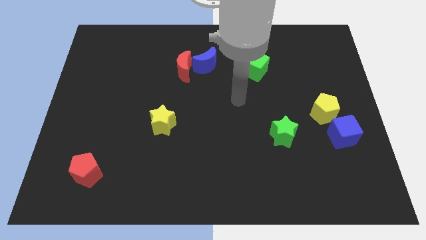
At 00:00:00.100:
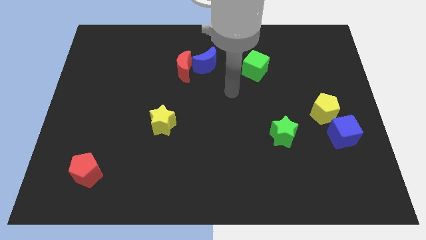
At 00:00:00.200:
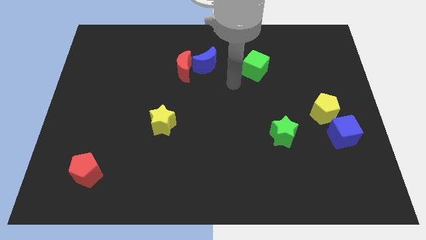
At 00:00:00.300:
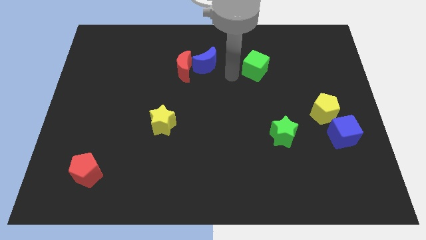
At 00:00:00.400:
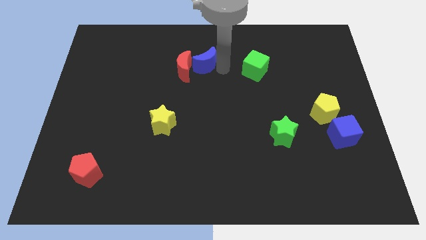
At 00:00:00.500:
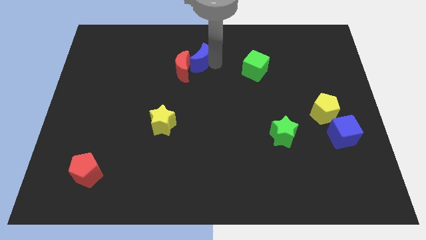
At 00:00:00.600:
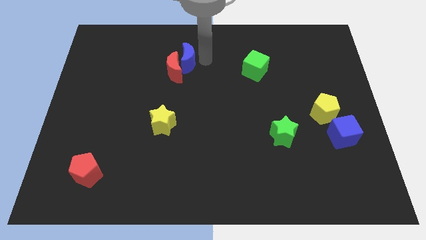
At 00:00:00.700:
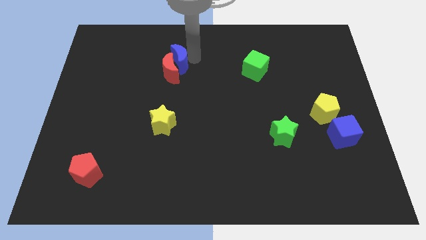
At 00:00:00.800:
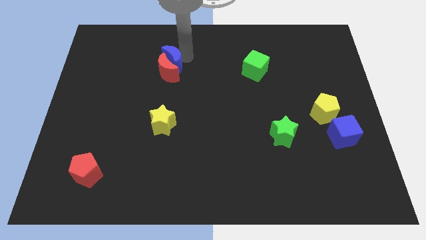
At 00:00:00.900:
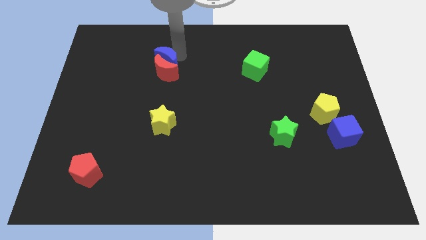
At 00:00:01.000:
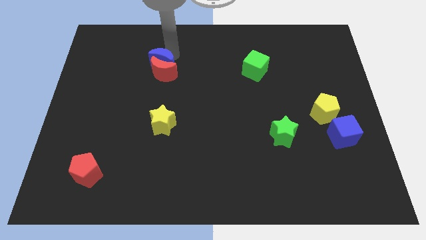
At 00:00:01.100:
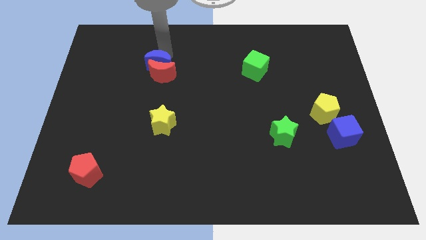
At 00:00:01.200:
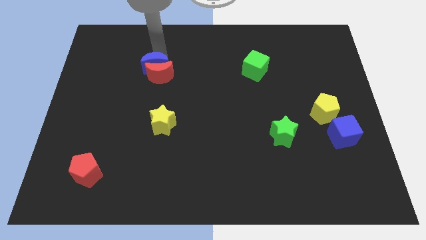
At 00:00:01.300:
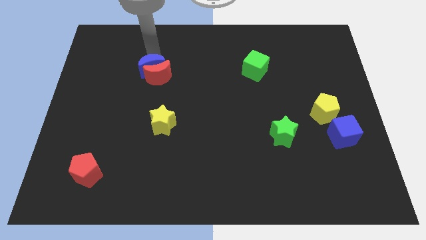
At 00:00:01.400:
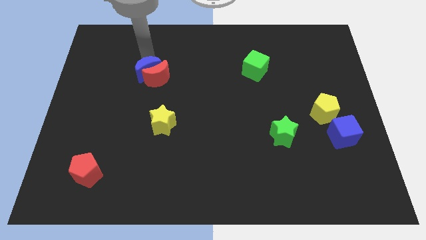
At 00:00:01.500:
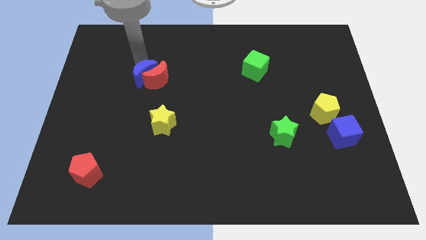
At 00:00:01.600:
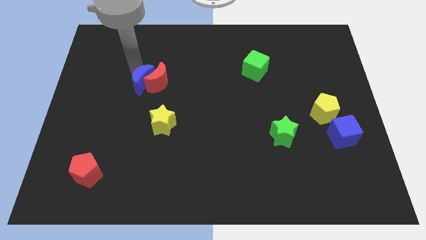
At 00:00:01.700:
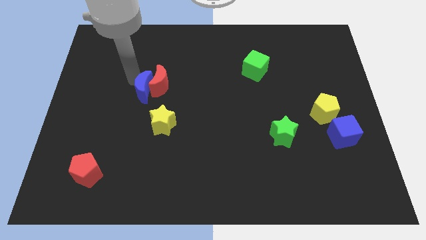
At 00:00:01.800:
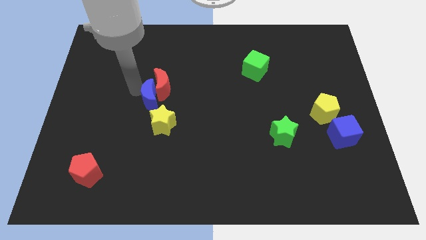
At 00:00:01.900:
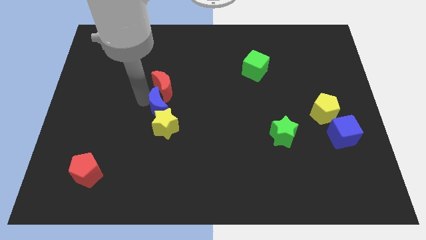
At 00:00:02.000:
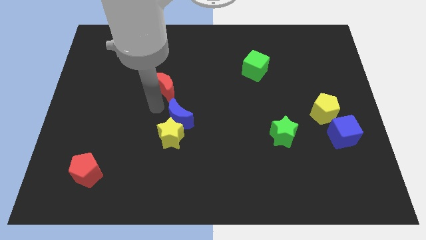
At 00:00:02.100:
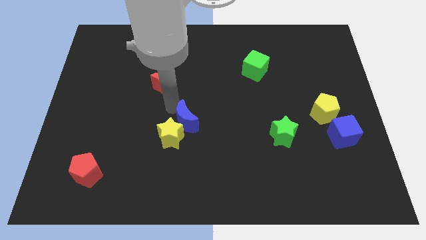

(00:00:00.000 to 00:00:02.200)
pull the red moon apart from the blue moon

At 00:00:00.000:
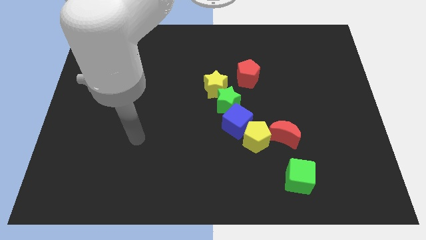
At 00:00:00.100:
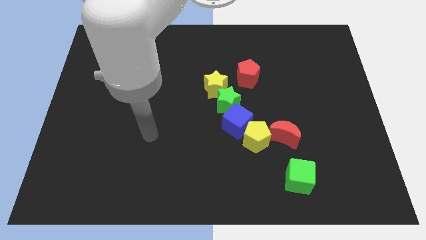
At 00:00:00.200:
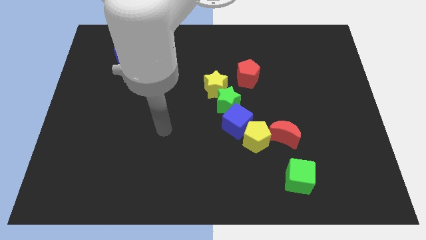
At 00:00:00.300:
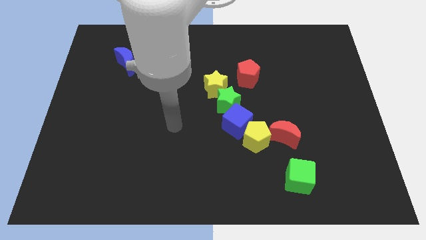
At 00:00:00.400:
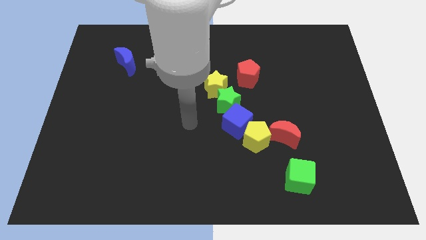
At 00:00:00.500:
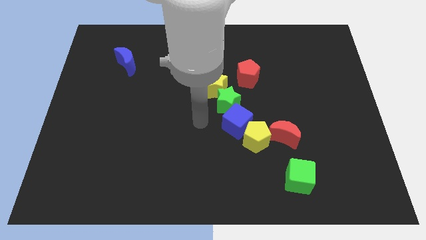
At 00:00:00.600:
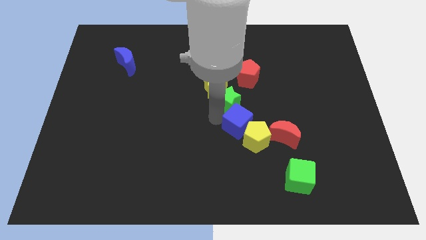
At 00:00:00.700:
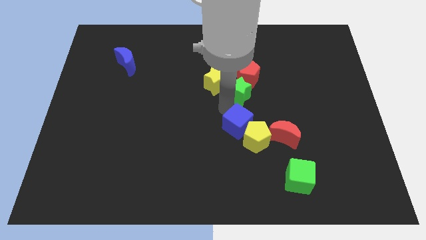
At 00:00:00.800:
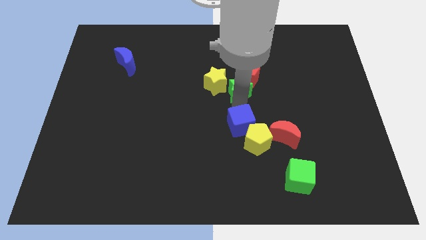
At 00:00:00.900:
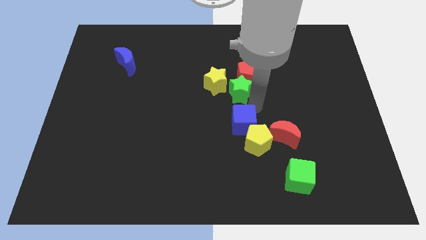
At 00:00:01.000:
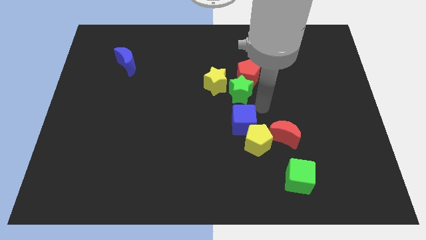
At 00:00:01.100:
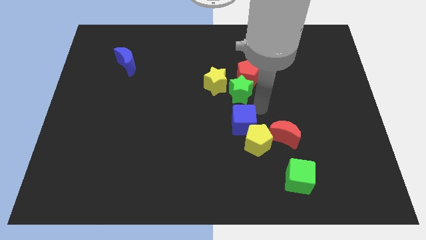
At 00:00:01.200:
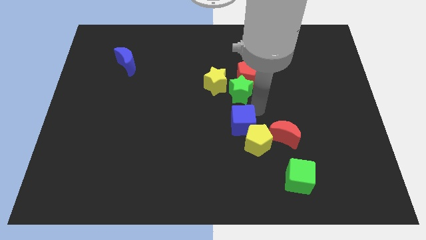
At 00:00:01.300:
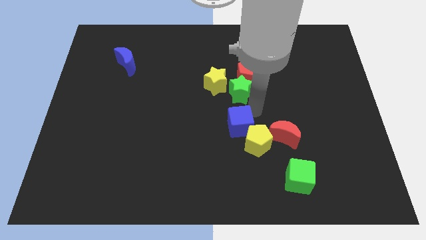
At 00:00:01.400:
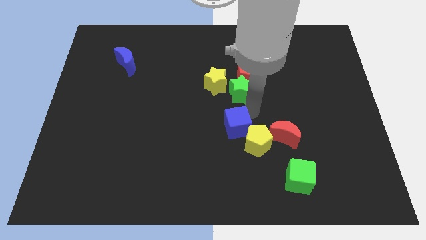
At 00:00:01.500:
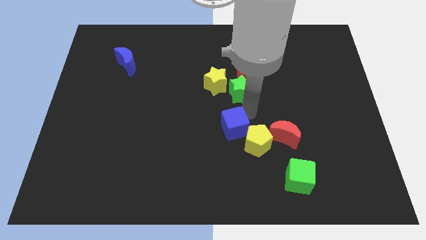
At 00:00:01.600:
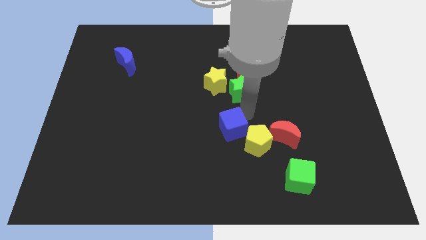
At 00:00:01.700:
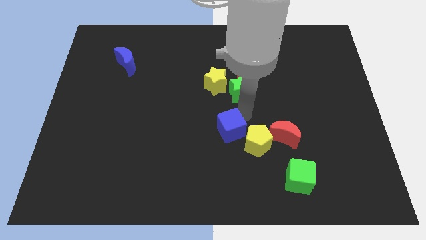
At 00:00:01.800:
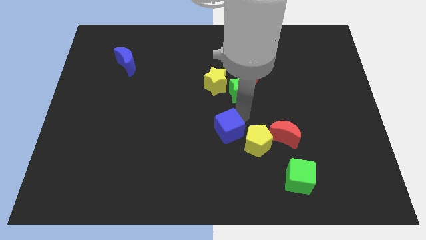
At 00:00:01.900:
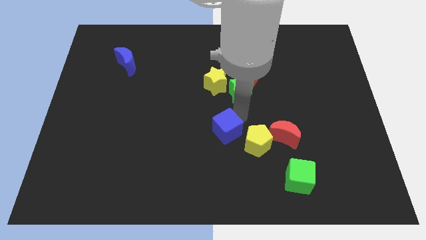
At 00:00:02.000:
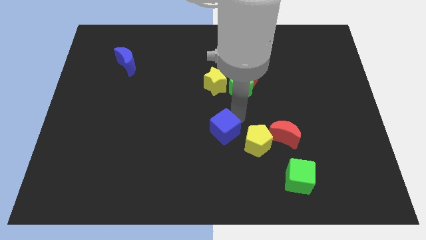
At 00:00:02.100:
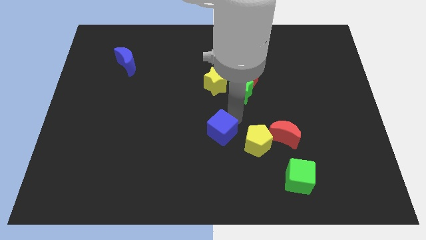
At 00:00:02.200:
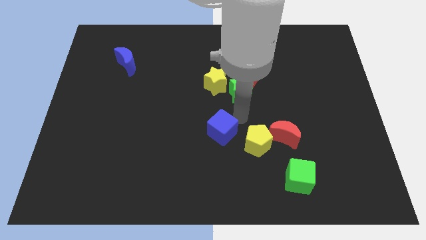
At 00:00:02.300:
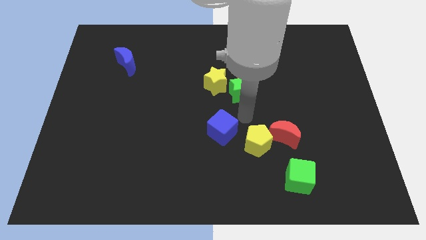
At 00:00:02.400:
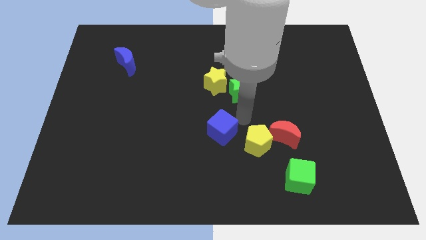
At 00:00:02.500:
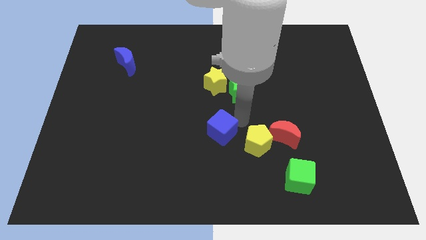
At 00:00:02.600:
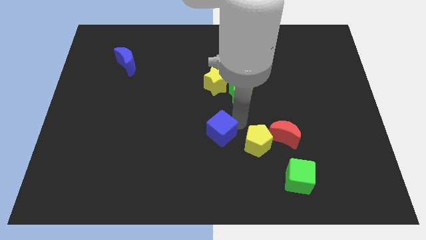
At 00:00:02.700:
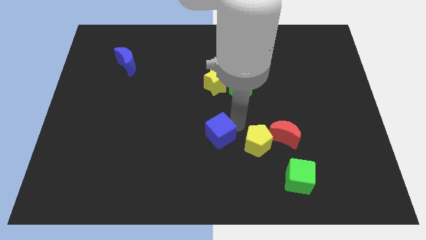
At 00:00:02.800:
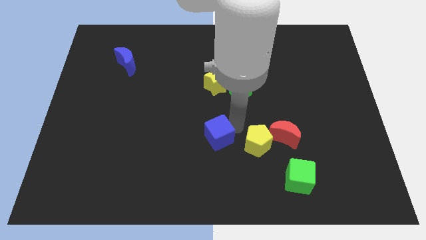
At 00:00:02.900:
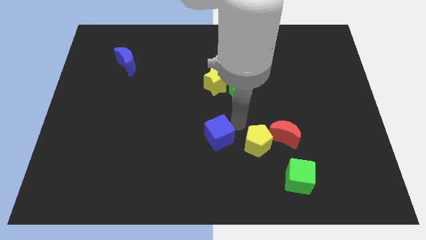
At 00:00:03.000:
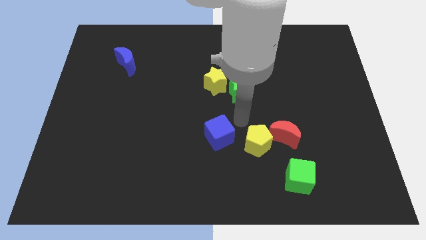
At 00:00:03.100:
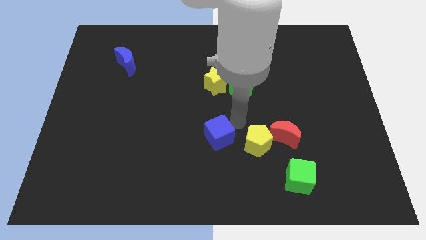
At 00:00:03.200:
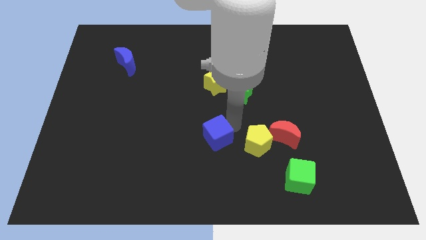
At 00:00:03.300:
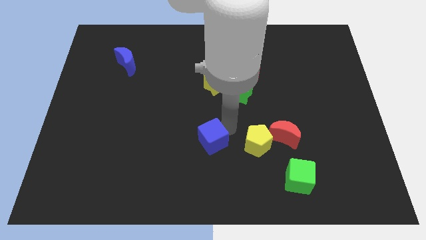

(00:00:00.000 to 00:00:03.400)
pull the blue cube apart from the yellow pentagon and green star

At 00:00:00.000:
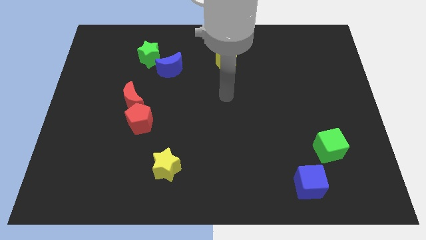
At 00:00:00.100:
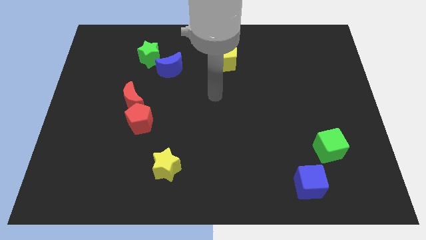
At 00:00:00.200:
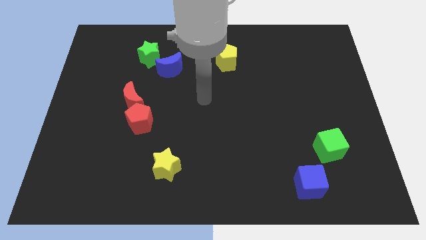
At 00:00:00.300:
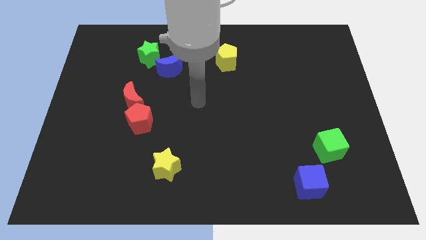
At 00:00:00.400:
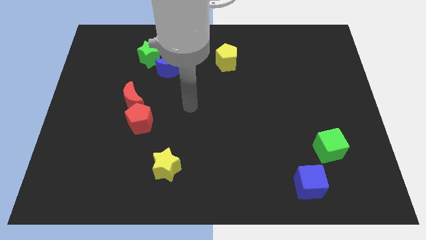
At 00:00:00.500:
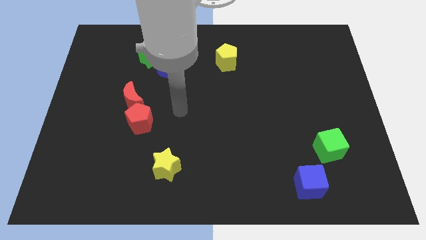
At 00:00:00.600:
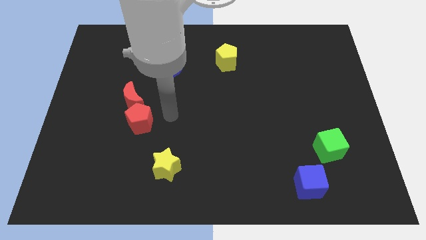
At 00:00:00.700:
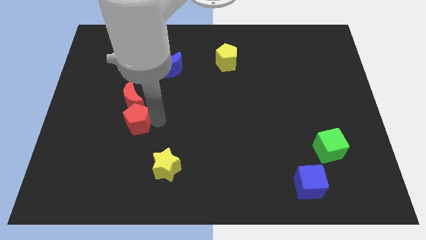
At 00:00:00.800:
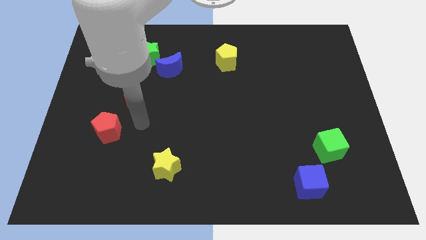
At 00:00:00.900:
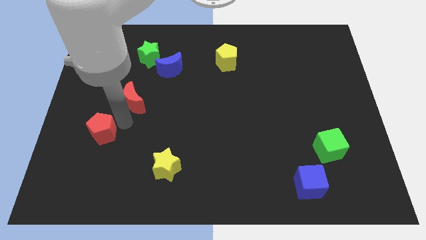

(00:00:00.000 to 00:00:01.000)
move the red moon away from the red pentagon

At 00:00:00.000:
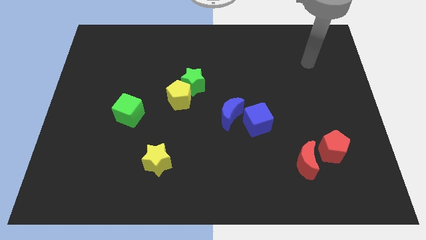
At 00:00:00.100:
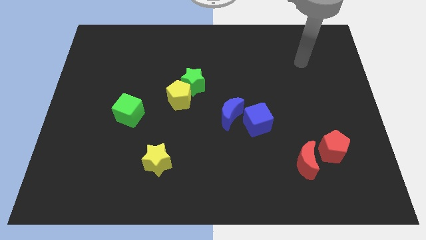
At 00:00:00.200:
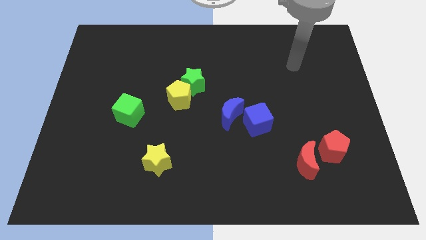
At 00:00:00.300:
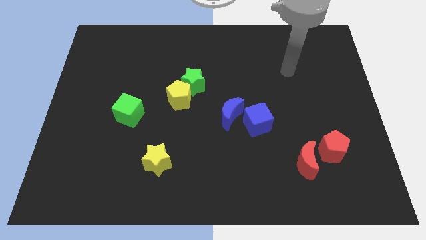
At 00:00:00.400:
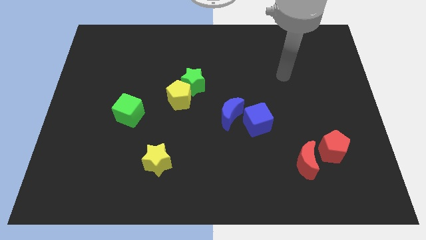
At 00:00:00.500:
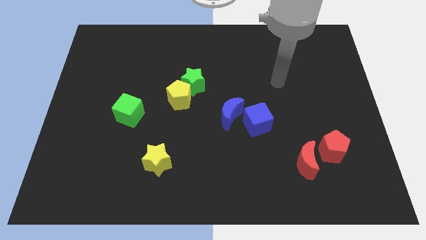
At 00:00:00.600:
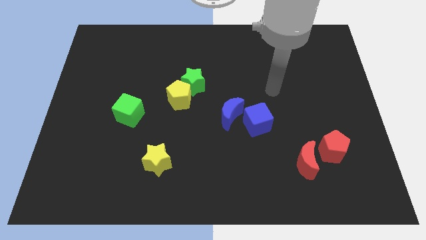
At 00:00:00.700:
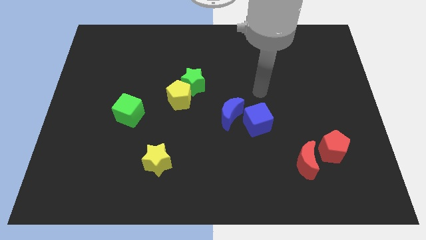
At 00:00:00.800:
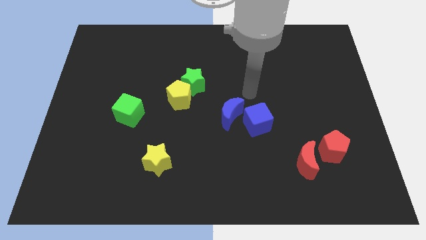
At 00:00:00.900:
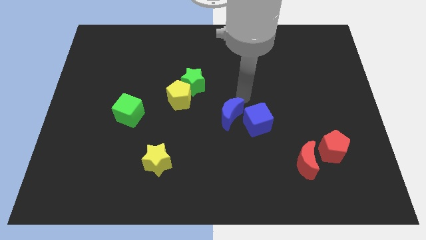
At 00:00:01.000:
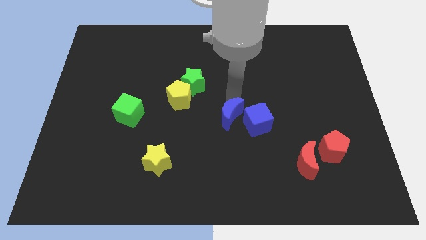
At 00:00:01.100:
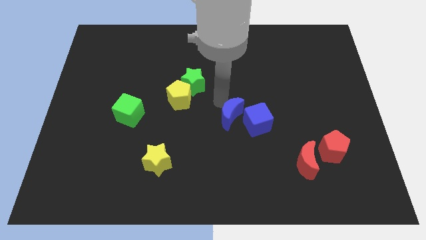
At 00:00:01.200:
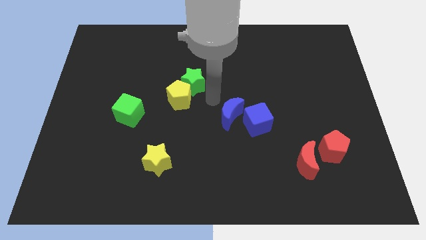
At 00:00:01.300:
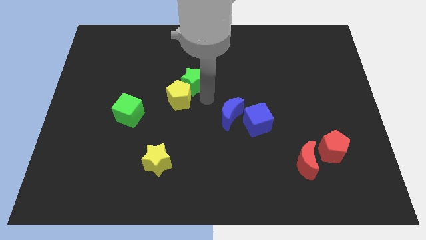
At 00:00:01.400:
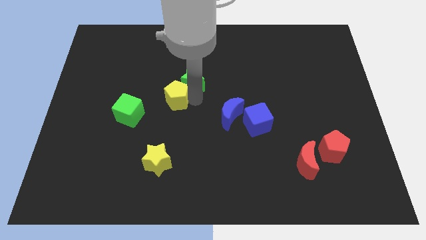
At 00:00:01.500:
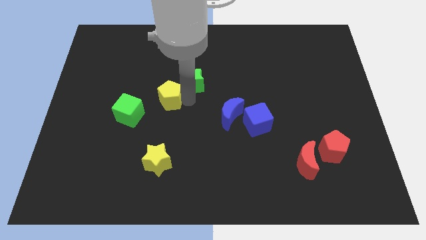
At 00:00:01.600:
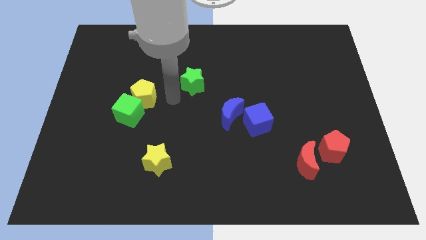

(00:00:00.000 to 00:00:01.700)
pull the green star apart from the yellow pentagon

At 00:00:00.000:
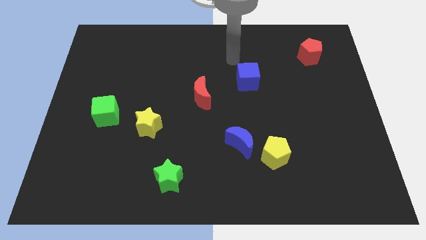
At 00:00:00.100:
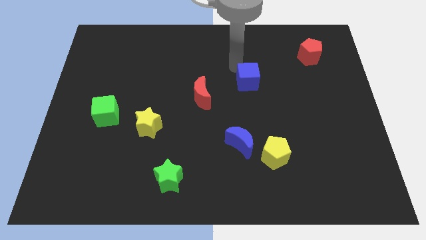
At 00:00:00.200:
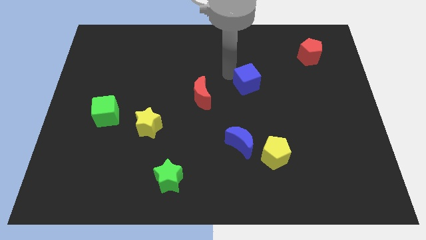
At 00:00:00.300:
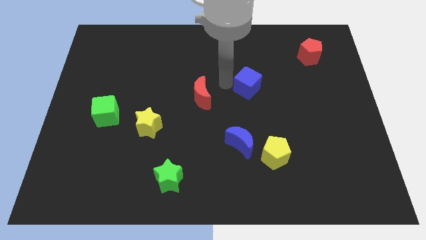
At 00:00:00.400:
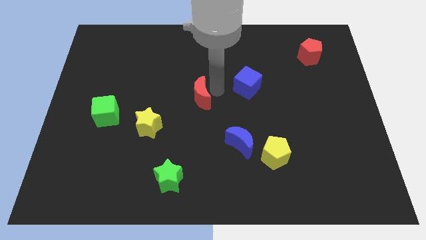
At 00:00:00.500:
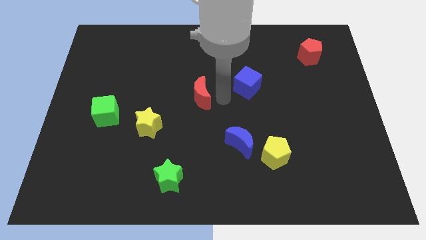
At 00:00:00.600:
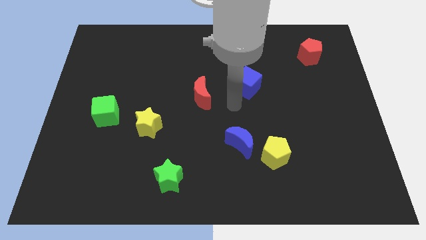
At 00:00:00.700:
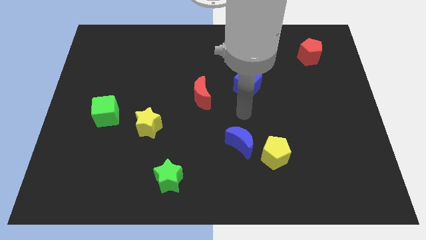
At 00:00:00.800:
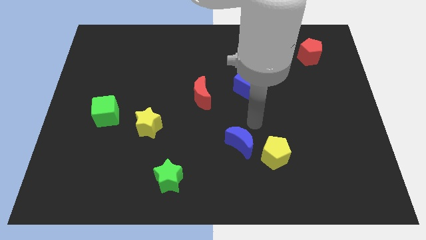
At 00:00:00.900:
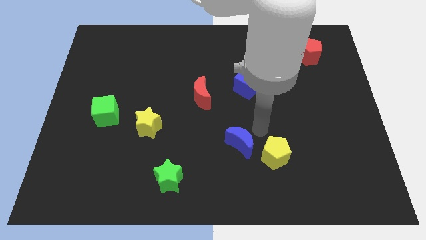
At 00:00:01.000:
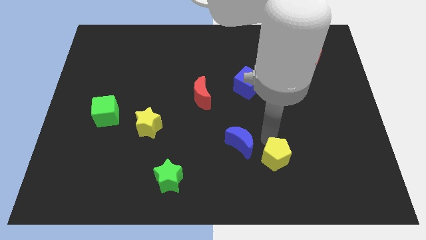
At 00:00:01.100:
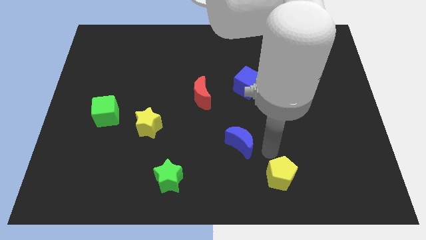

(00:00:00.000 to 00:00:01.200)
move the blue moon away from the yellow pentagon
